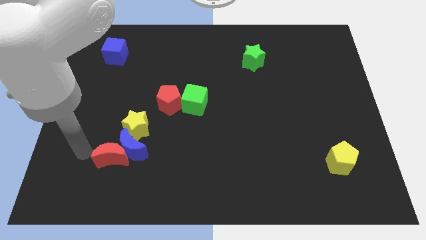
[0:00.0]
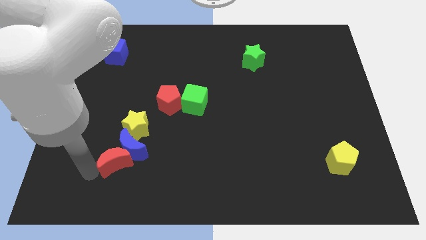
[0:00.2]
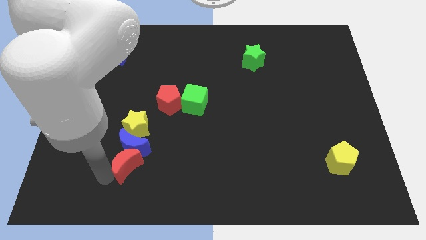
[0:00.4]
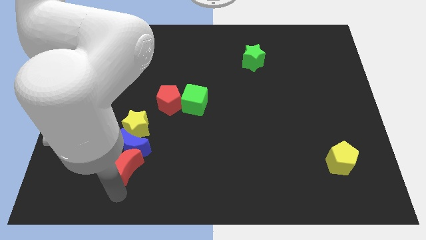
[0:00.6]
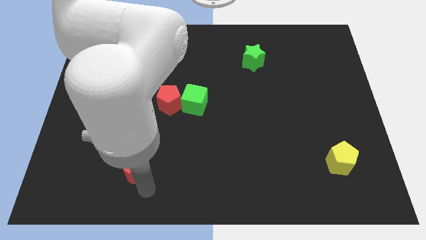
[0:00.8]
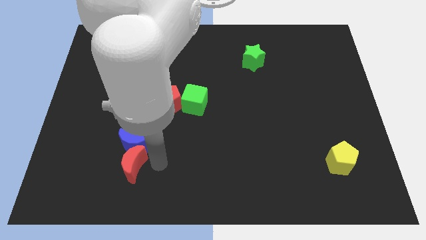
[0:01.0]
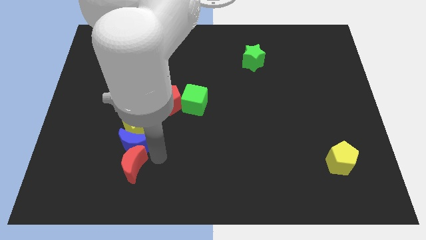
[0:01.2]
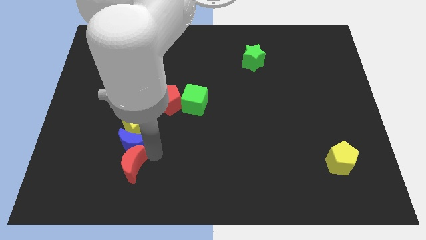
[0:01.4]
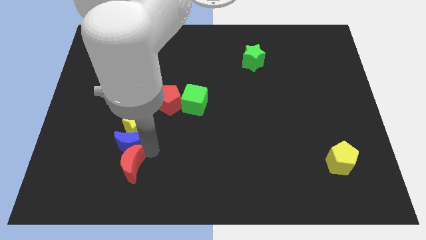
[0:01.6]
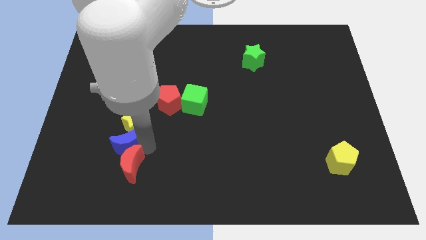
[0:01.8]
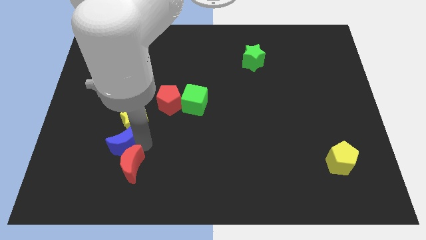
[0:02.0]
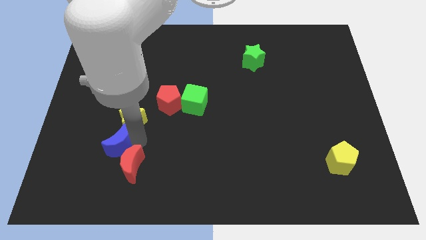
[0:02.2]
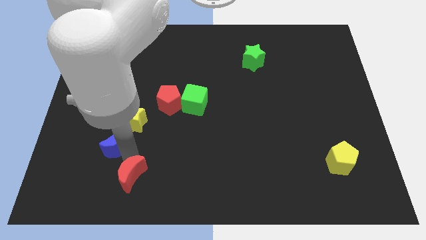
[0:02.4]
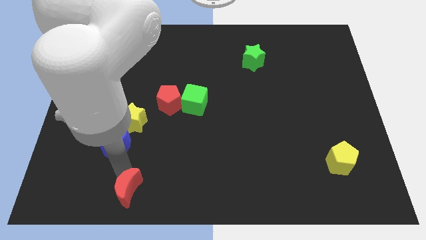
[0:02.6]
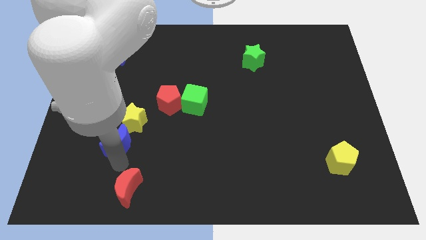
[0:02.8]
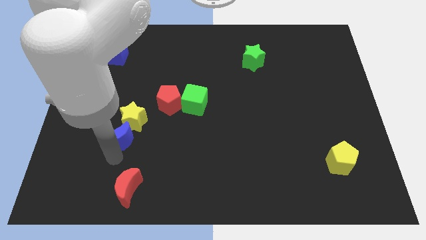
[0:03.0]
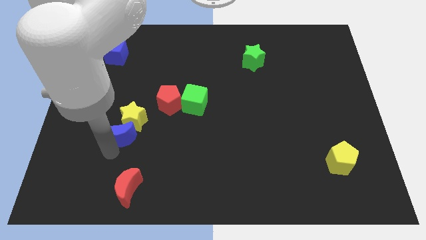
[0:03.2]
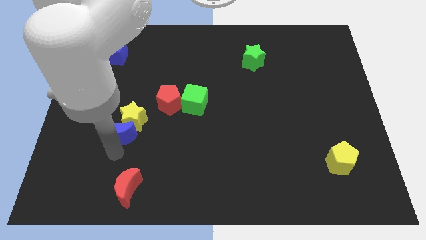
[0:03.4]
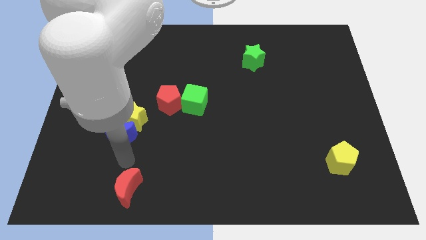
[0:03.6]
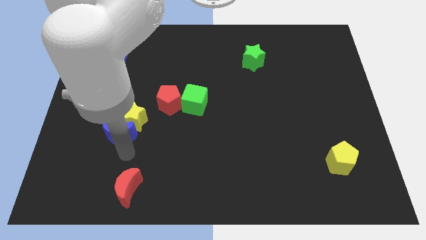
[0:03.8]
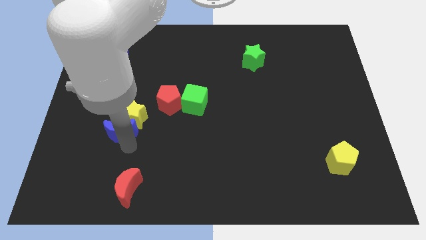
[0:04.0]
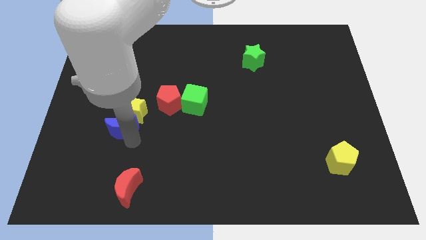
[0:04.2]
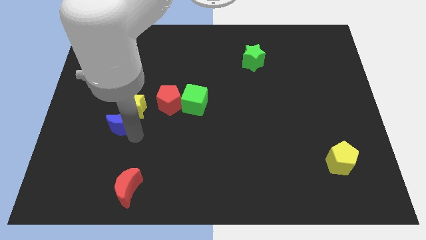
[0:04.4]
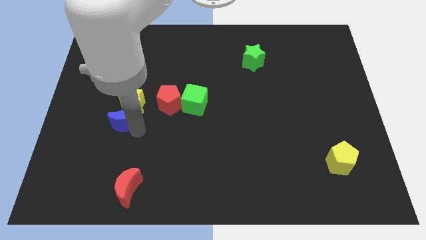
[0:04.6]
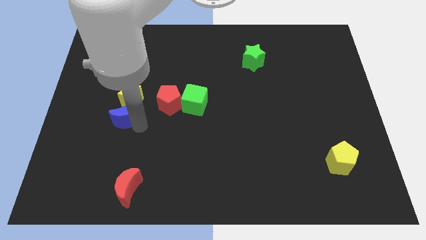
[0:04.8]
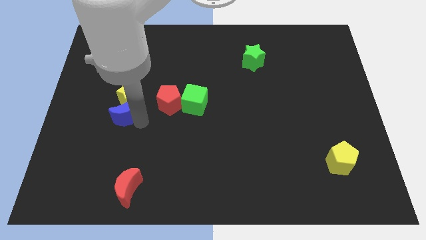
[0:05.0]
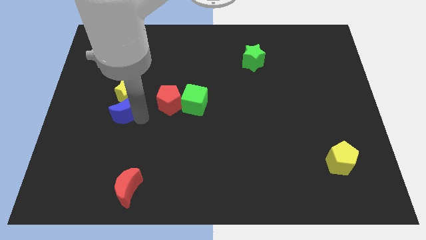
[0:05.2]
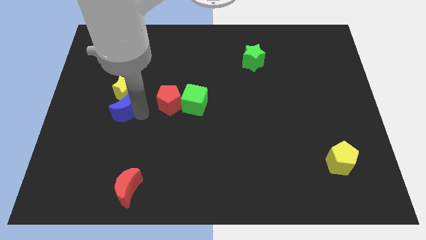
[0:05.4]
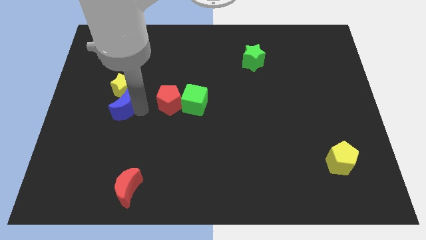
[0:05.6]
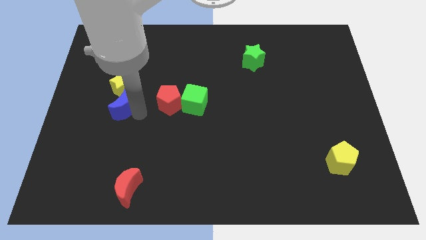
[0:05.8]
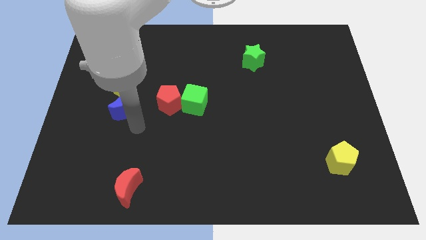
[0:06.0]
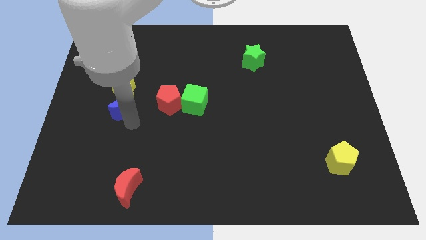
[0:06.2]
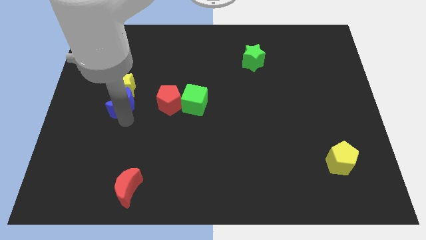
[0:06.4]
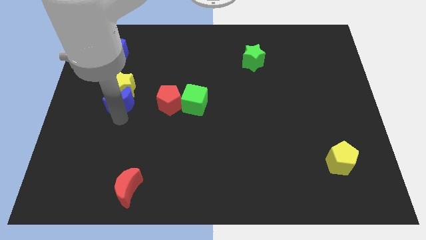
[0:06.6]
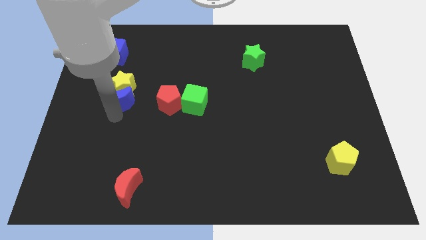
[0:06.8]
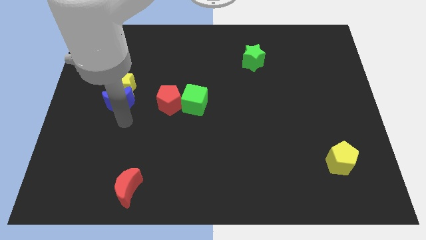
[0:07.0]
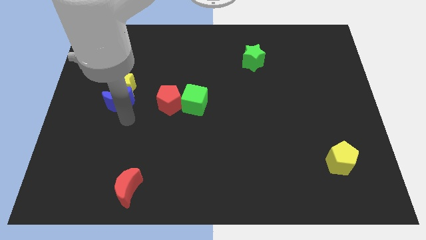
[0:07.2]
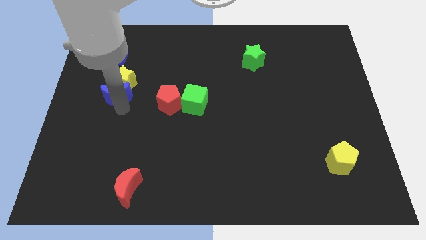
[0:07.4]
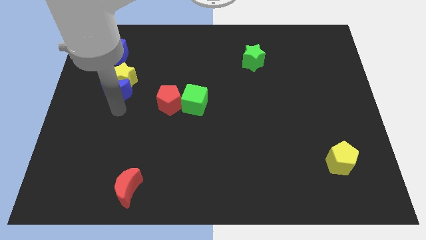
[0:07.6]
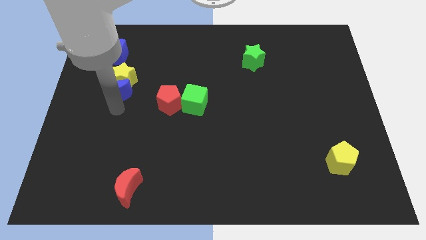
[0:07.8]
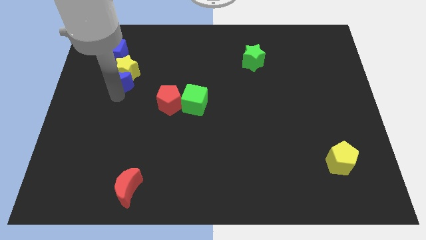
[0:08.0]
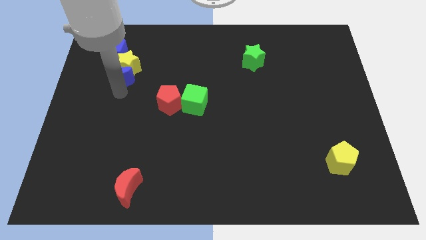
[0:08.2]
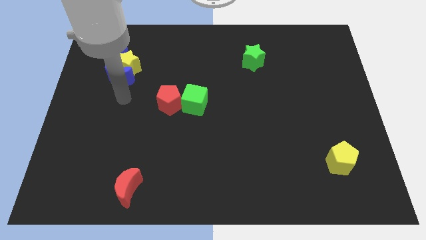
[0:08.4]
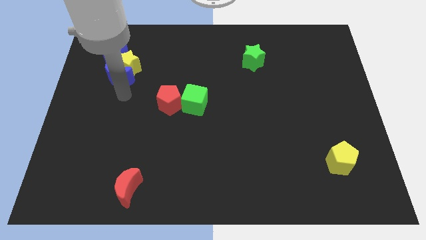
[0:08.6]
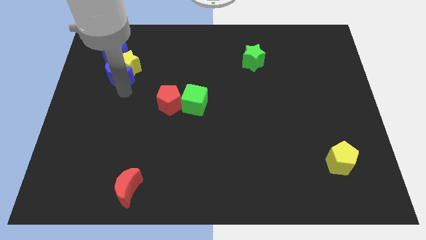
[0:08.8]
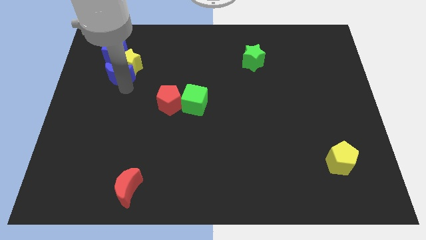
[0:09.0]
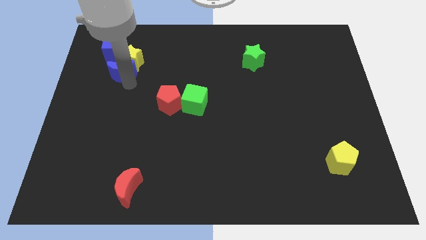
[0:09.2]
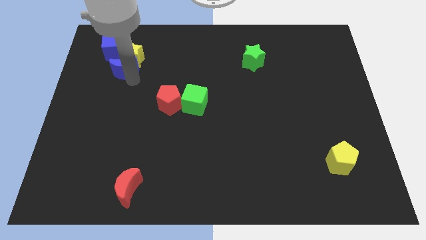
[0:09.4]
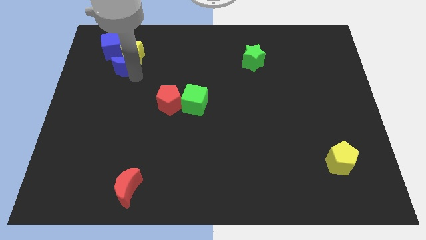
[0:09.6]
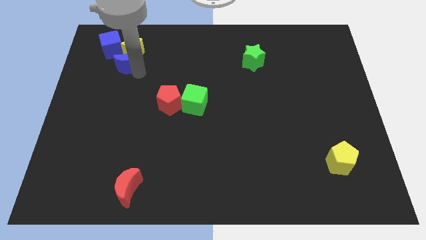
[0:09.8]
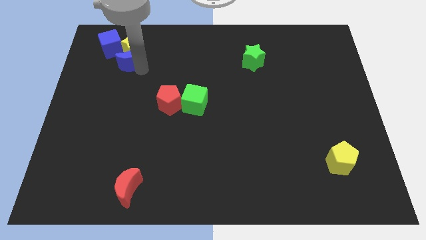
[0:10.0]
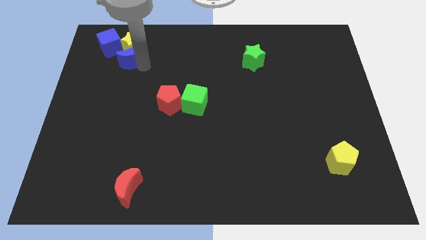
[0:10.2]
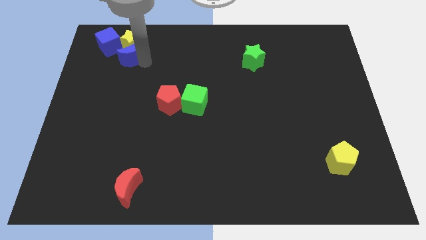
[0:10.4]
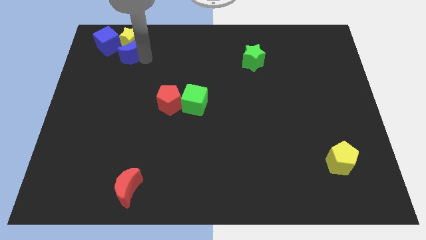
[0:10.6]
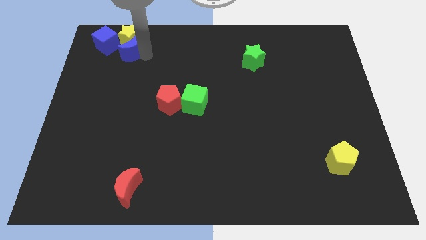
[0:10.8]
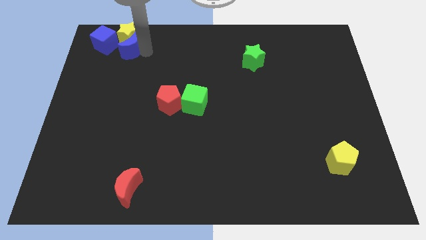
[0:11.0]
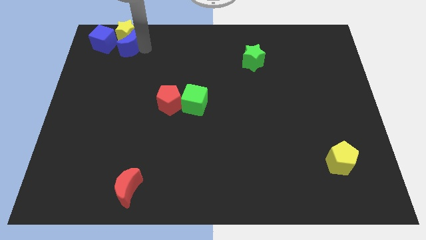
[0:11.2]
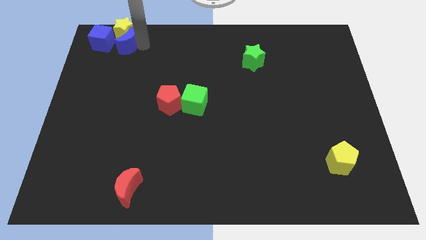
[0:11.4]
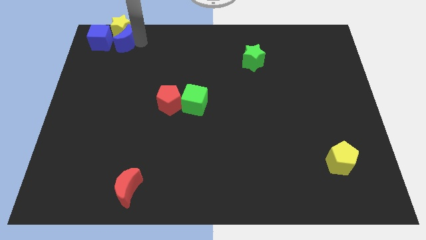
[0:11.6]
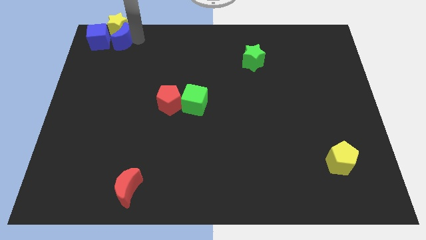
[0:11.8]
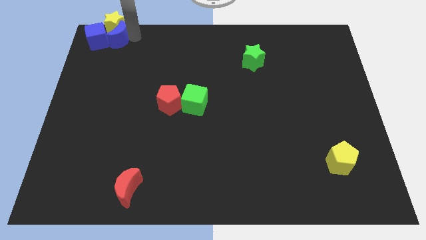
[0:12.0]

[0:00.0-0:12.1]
slide the blue moon to the blue cube

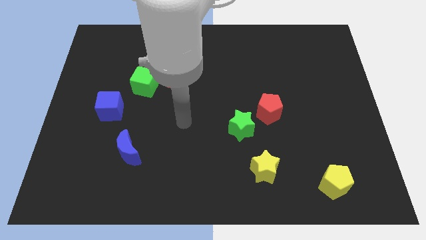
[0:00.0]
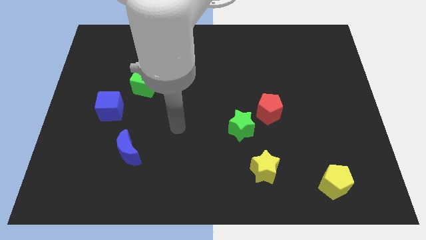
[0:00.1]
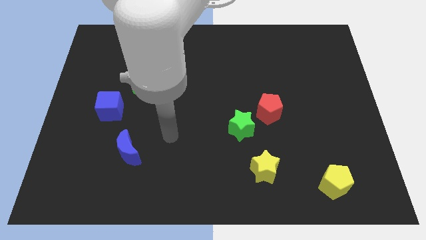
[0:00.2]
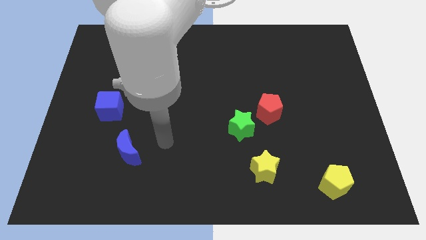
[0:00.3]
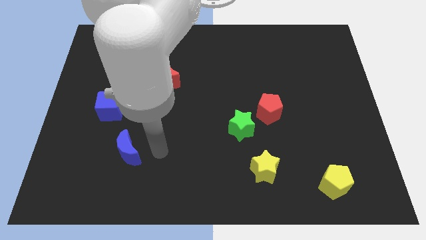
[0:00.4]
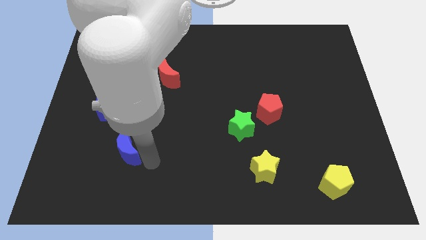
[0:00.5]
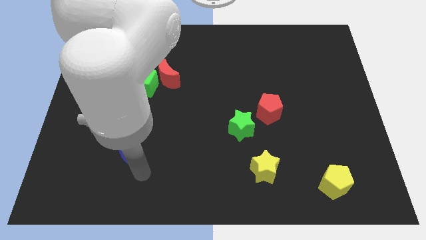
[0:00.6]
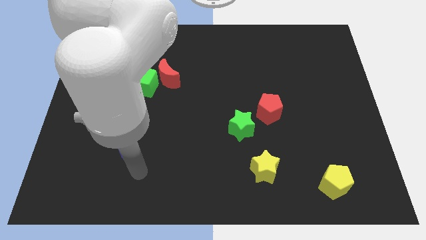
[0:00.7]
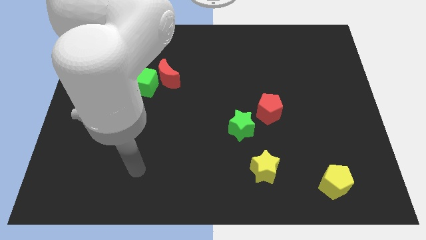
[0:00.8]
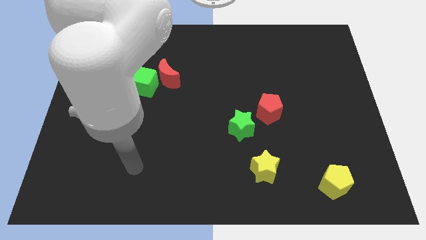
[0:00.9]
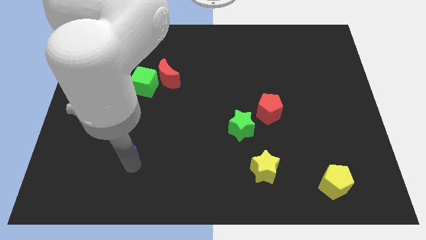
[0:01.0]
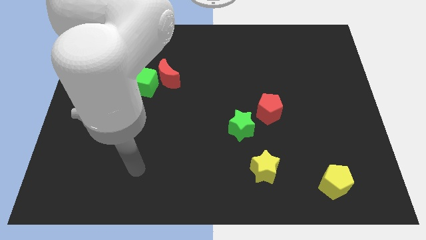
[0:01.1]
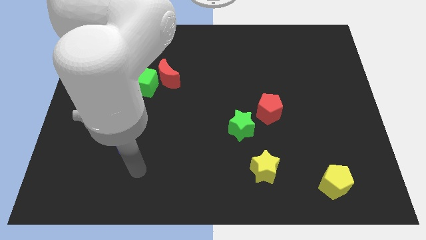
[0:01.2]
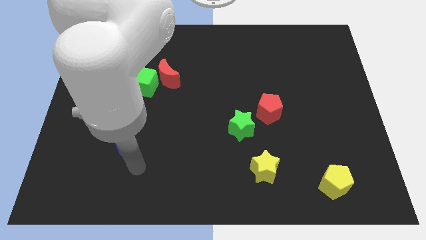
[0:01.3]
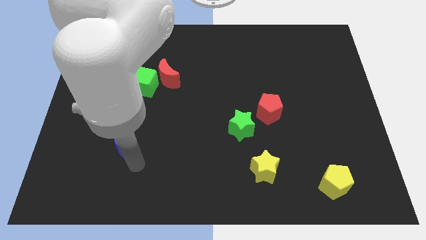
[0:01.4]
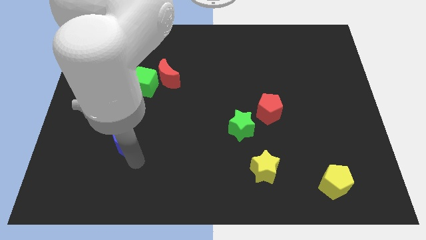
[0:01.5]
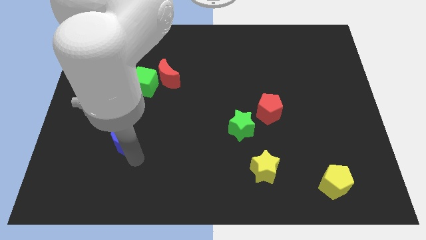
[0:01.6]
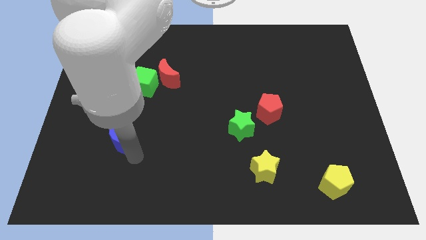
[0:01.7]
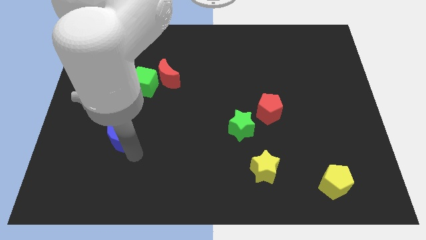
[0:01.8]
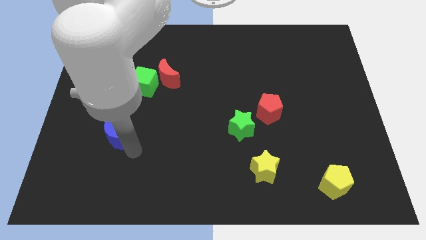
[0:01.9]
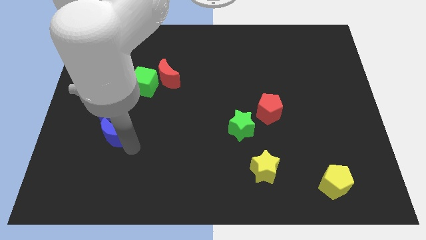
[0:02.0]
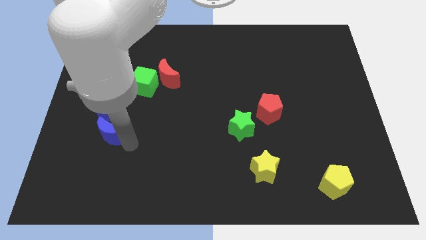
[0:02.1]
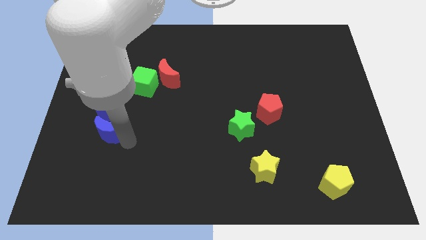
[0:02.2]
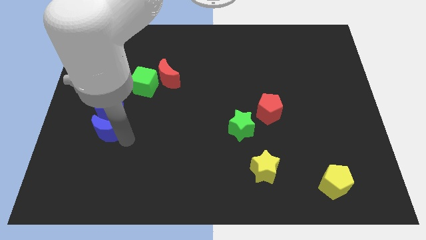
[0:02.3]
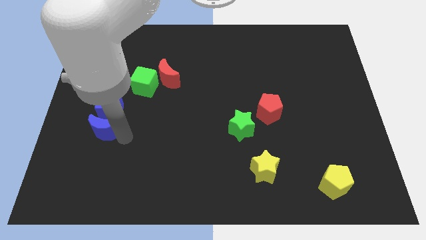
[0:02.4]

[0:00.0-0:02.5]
slide the blue moon next to the blue cube
